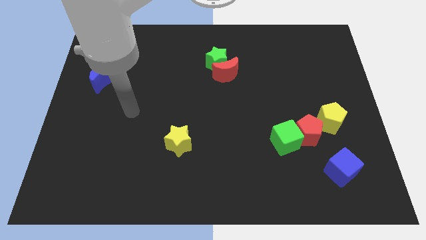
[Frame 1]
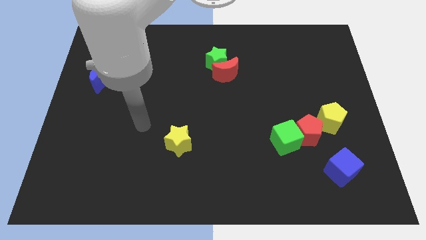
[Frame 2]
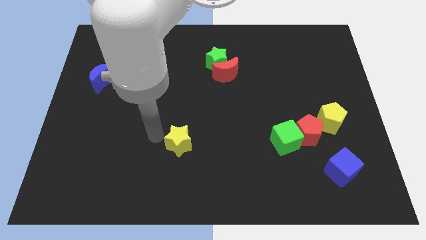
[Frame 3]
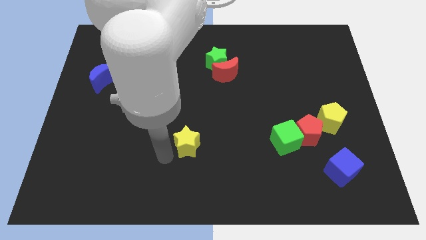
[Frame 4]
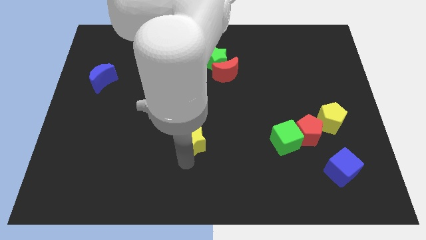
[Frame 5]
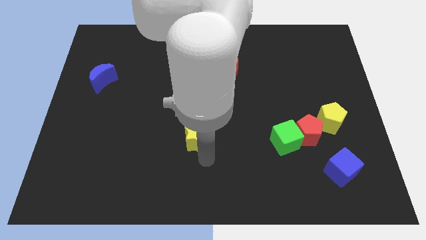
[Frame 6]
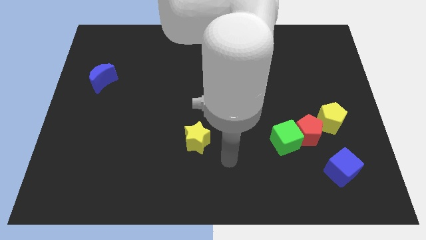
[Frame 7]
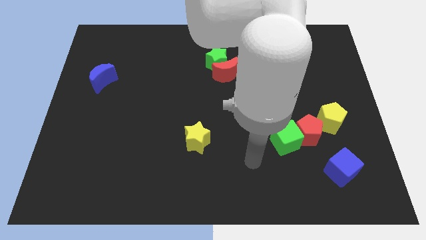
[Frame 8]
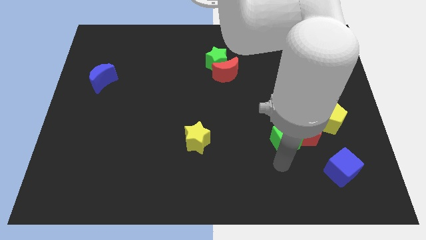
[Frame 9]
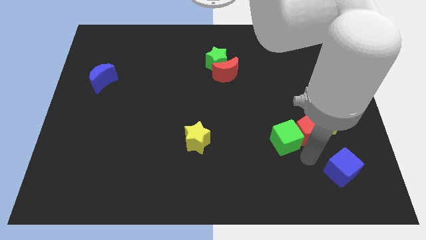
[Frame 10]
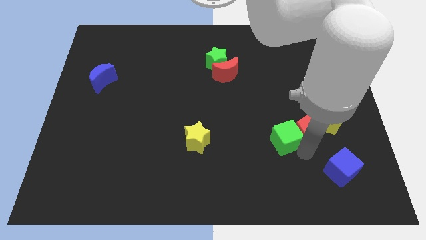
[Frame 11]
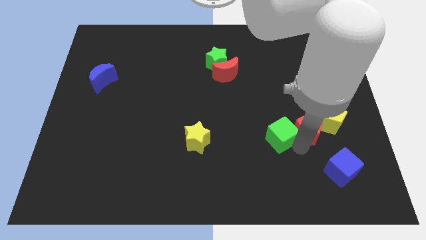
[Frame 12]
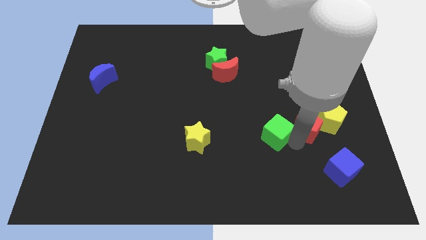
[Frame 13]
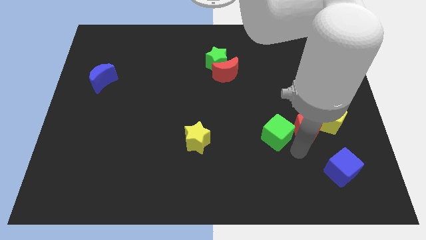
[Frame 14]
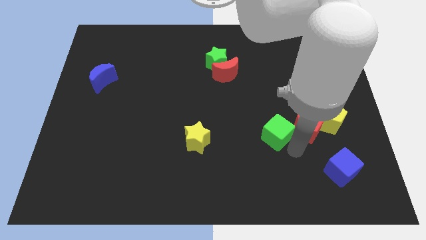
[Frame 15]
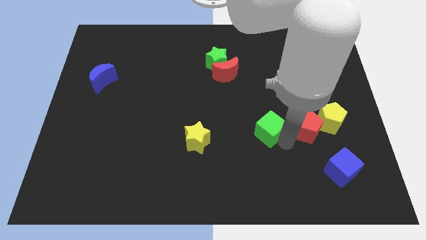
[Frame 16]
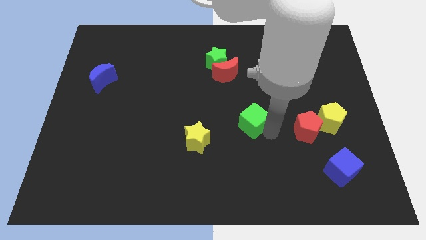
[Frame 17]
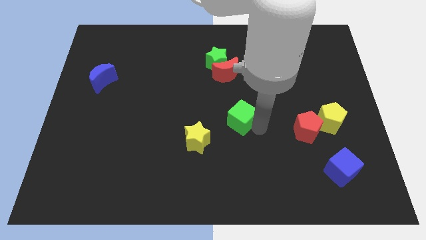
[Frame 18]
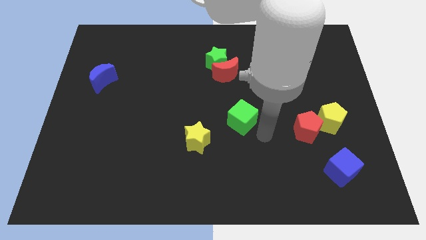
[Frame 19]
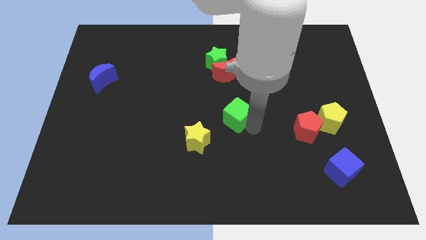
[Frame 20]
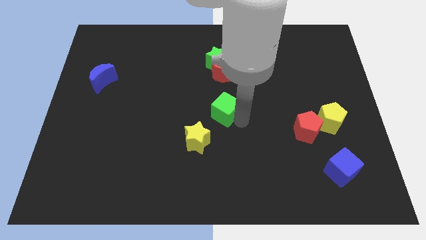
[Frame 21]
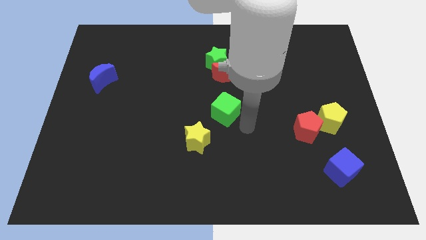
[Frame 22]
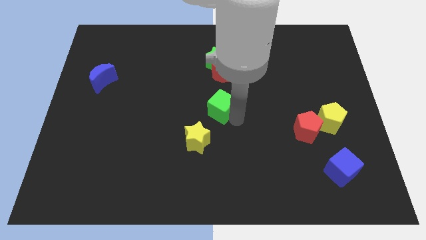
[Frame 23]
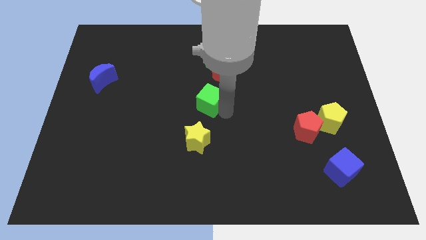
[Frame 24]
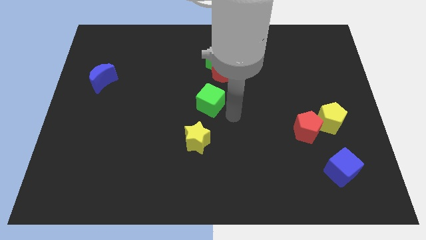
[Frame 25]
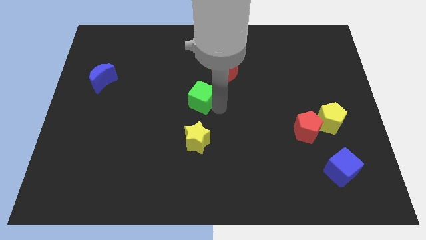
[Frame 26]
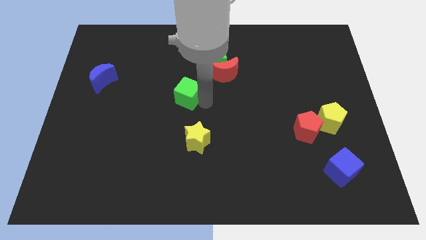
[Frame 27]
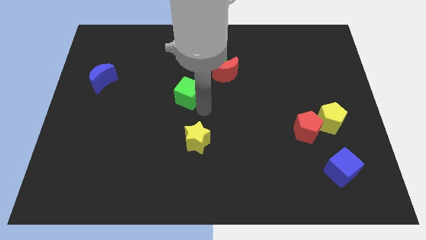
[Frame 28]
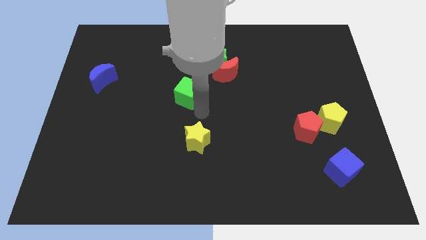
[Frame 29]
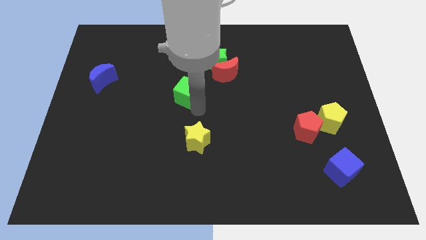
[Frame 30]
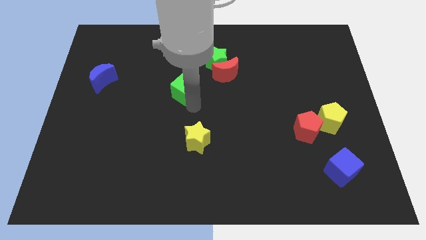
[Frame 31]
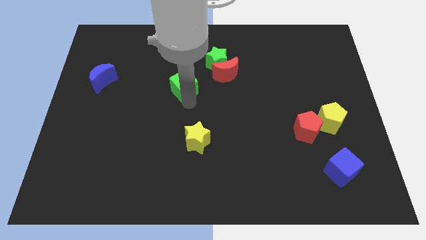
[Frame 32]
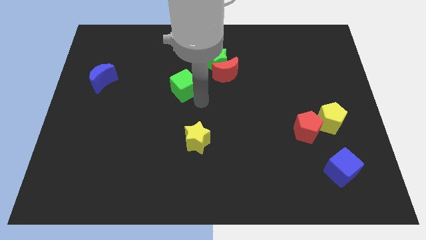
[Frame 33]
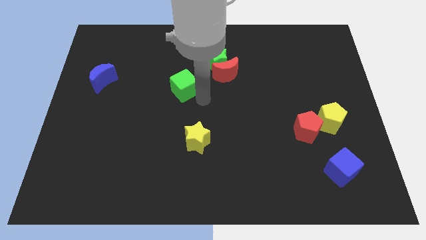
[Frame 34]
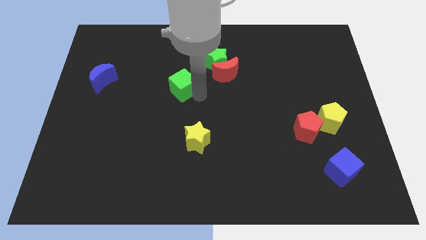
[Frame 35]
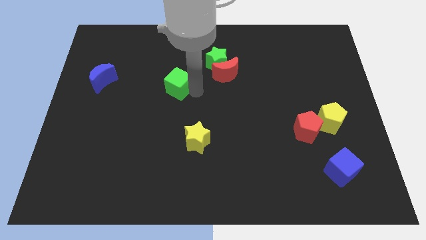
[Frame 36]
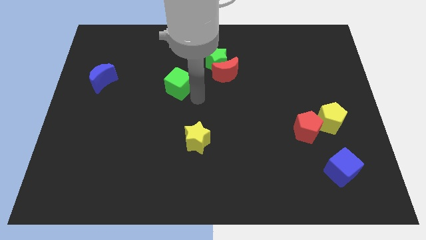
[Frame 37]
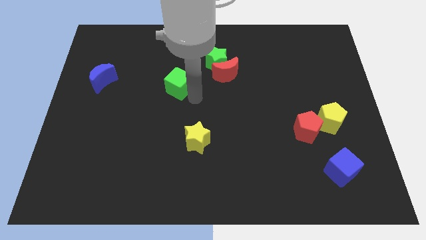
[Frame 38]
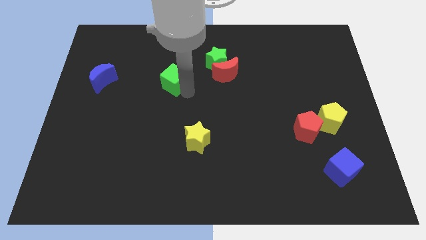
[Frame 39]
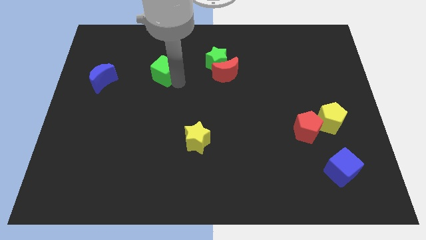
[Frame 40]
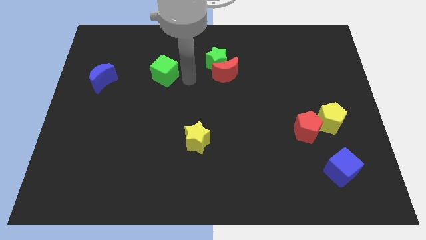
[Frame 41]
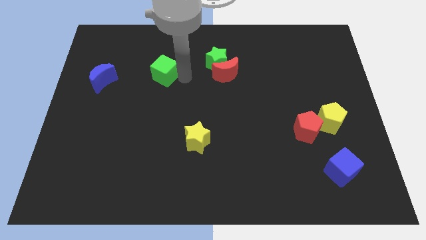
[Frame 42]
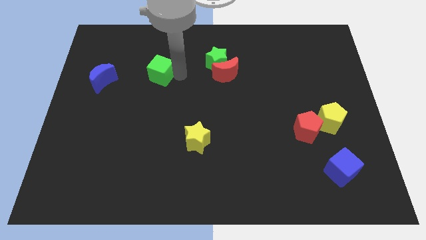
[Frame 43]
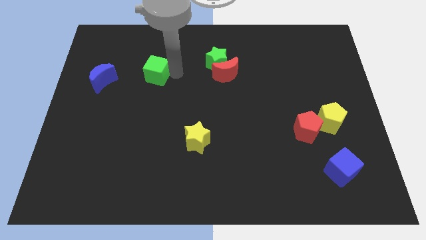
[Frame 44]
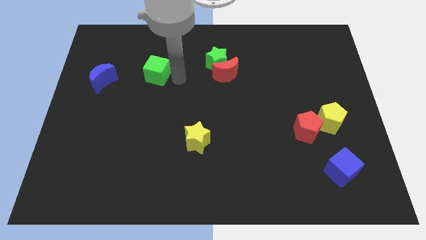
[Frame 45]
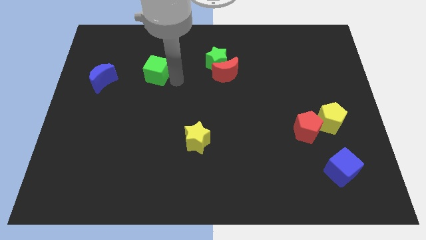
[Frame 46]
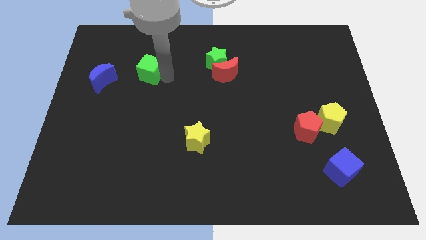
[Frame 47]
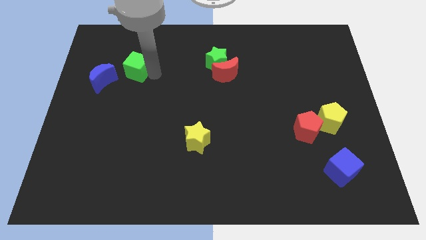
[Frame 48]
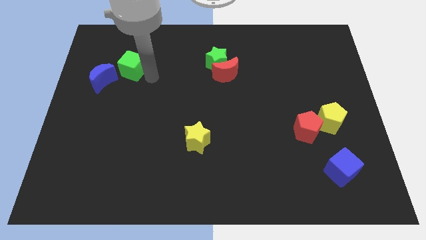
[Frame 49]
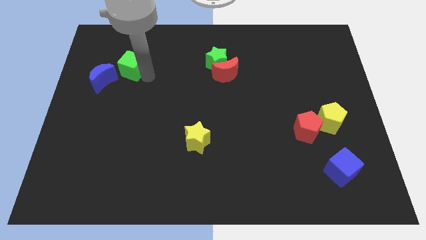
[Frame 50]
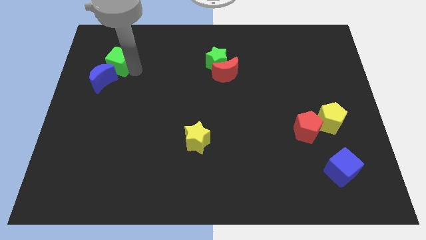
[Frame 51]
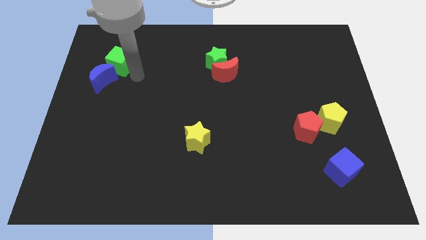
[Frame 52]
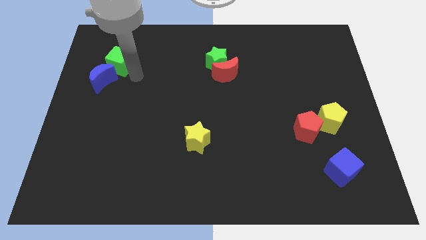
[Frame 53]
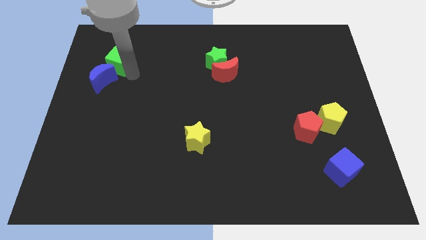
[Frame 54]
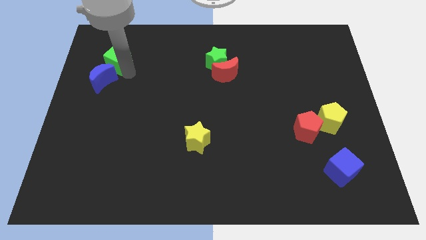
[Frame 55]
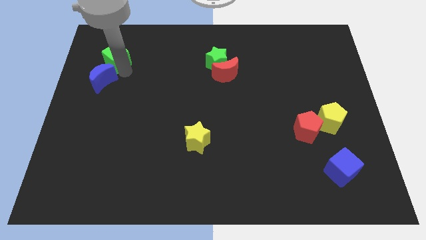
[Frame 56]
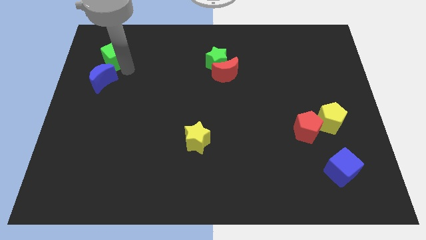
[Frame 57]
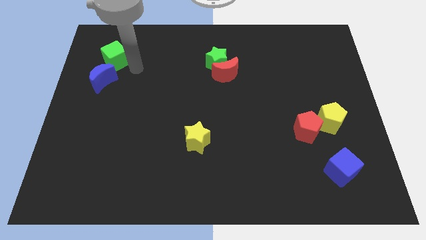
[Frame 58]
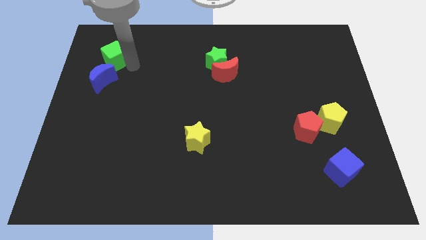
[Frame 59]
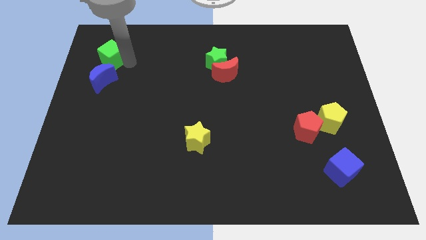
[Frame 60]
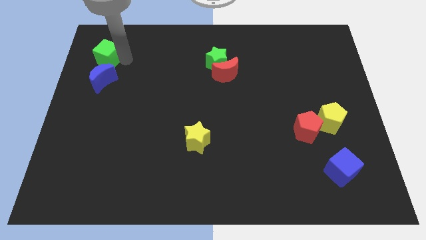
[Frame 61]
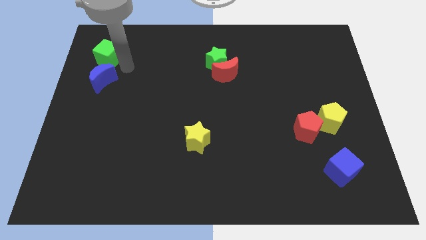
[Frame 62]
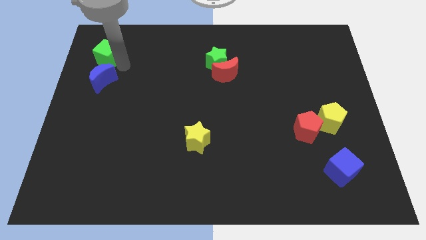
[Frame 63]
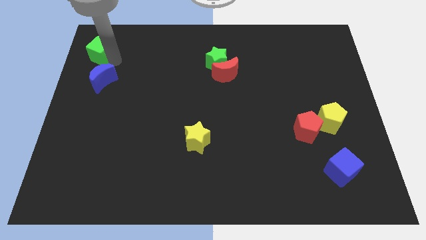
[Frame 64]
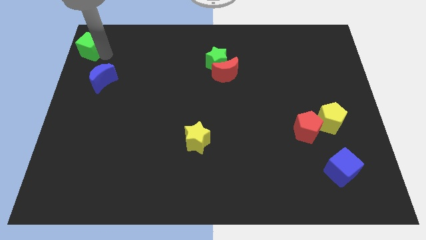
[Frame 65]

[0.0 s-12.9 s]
put the green cube to the top left
